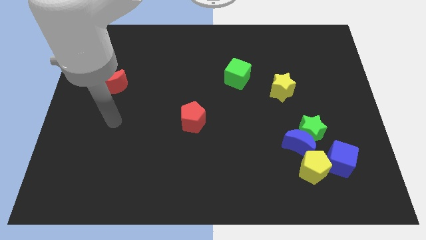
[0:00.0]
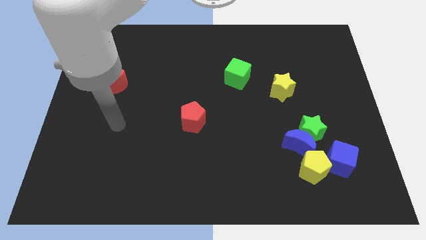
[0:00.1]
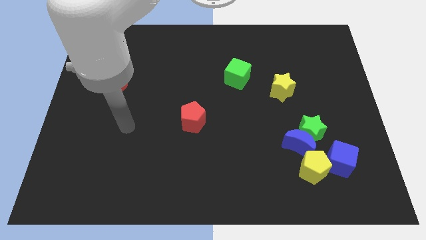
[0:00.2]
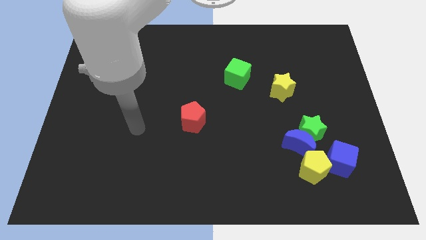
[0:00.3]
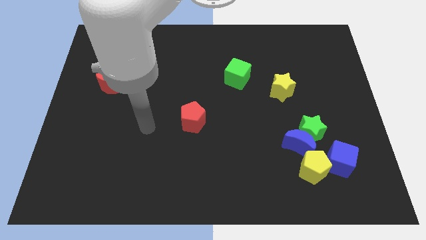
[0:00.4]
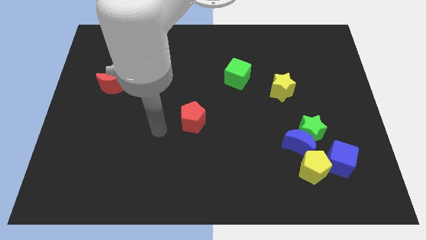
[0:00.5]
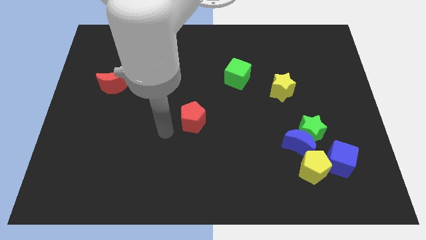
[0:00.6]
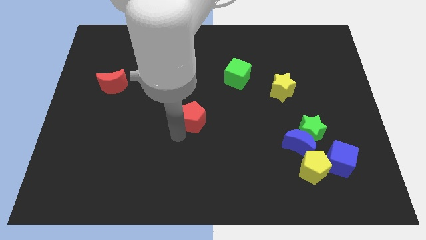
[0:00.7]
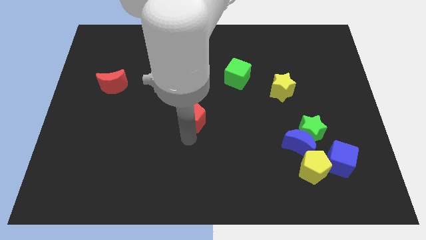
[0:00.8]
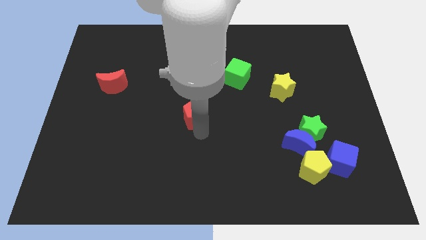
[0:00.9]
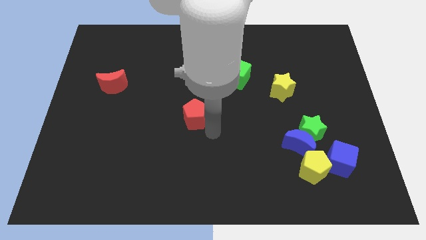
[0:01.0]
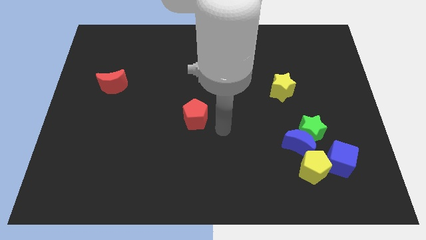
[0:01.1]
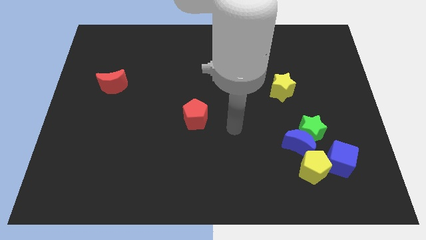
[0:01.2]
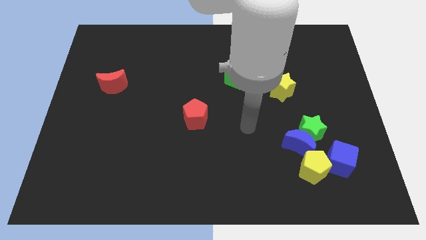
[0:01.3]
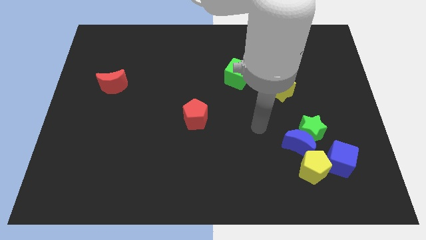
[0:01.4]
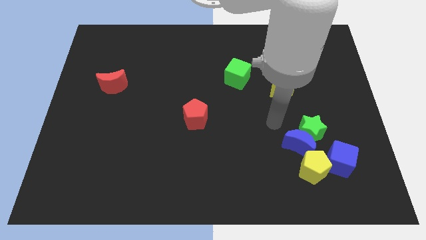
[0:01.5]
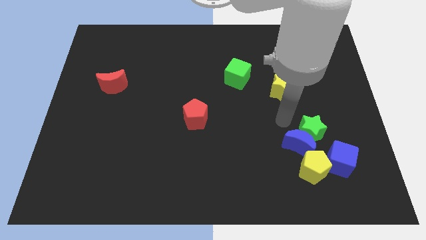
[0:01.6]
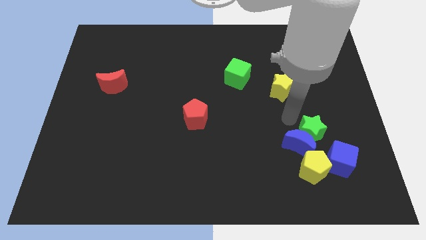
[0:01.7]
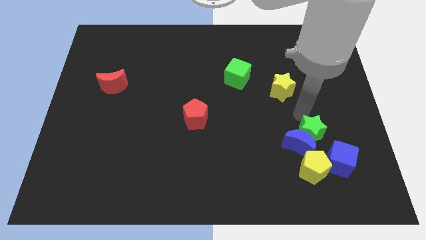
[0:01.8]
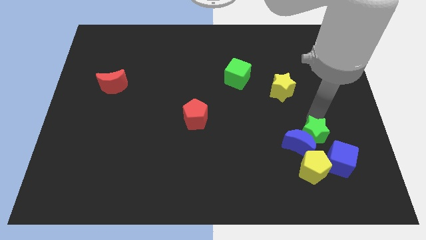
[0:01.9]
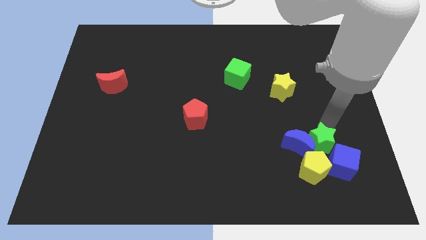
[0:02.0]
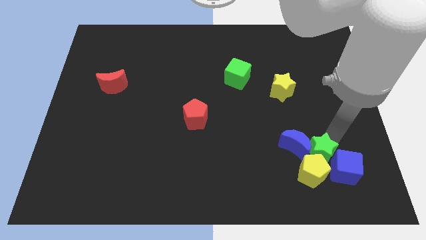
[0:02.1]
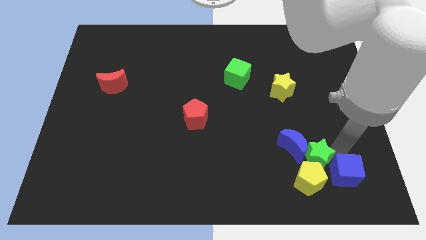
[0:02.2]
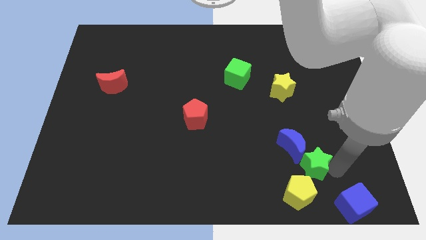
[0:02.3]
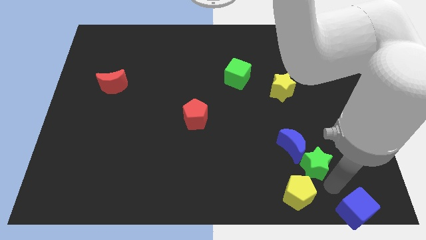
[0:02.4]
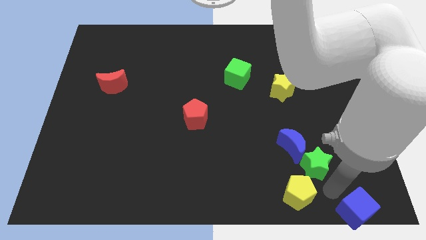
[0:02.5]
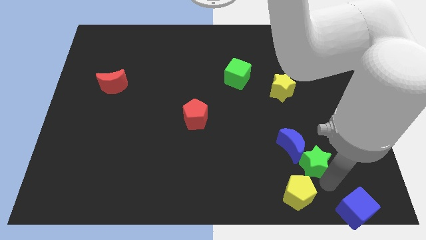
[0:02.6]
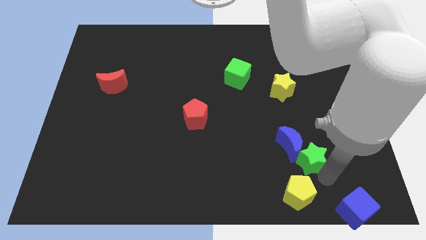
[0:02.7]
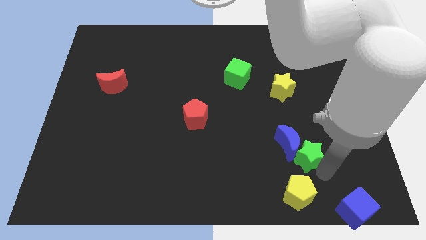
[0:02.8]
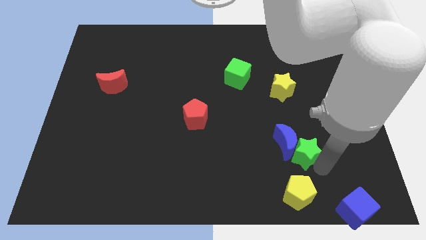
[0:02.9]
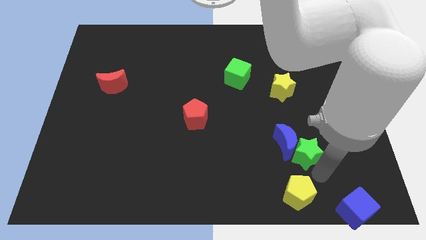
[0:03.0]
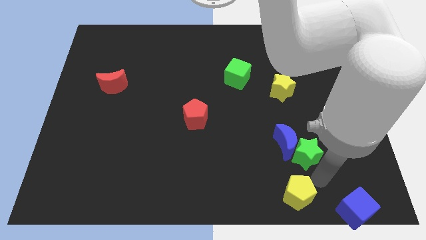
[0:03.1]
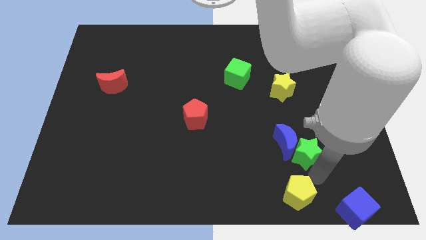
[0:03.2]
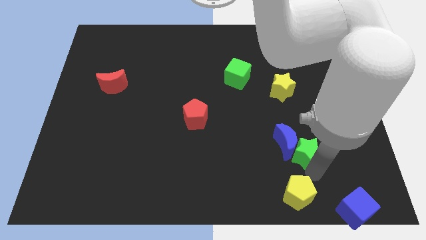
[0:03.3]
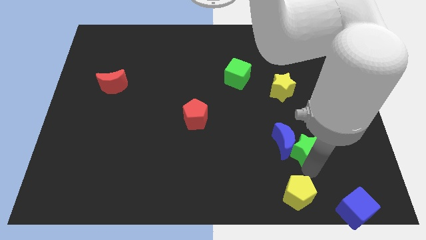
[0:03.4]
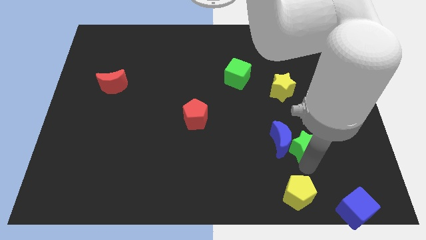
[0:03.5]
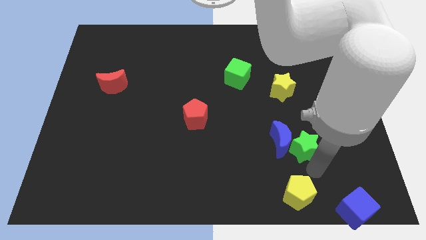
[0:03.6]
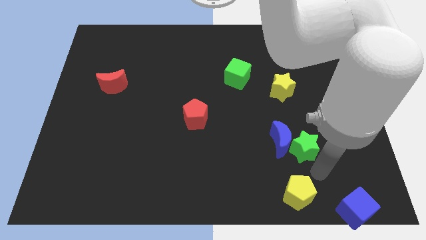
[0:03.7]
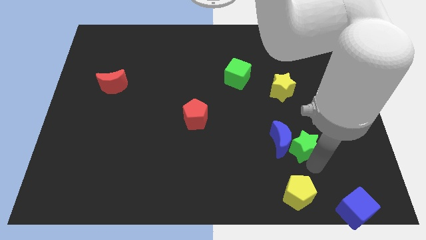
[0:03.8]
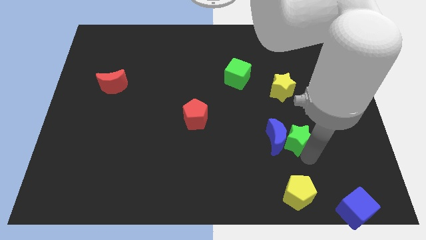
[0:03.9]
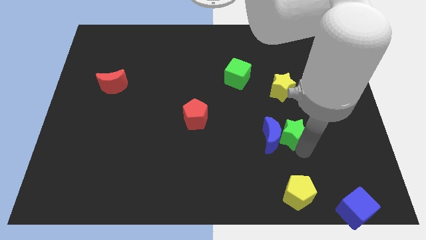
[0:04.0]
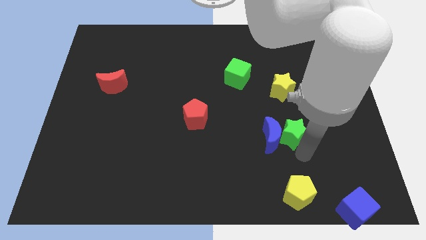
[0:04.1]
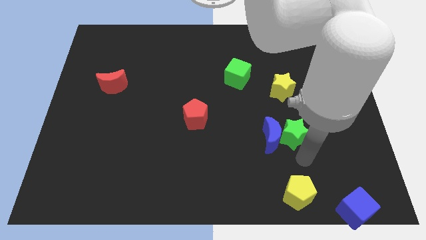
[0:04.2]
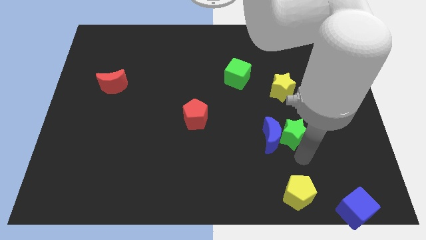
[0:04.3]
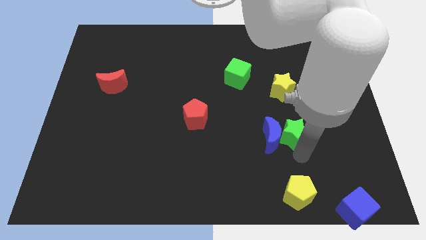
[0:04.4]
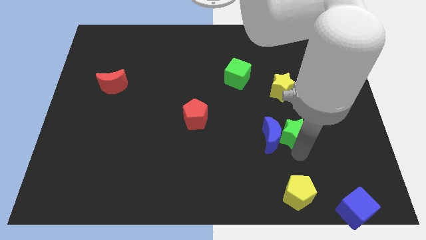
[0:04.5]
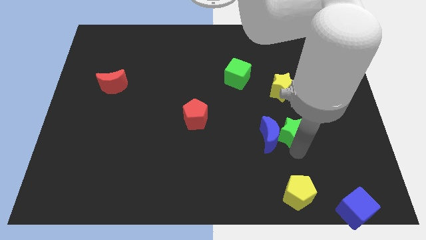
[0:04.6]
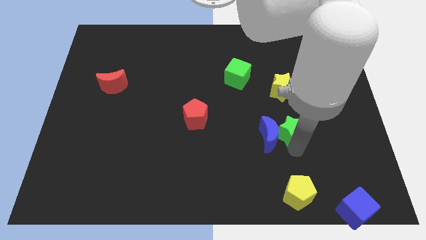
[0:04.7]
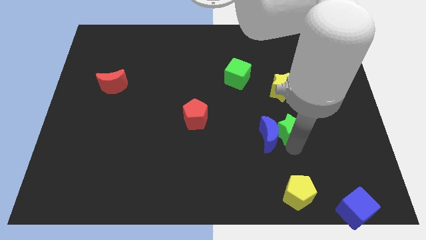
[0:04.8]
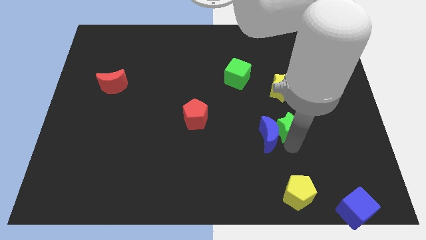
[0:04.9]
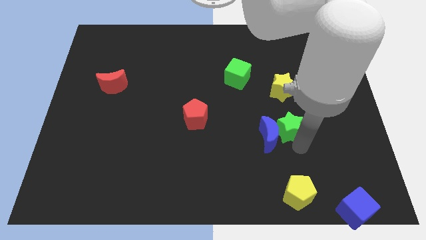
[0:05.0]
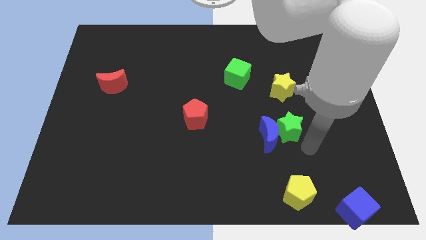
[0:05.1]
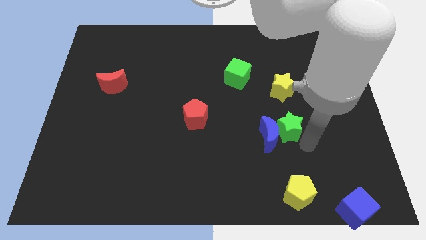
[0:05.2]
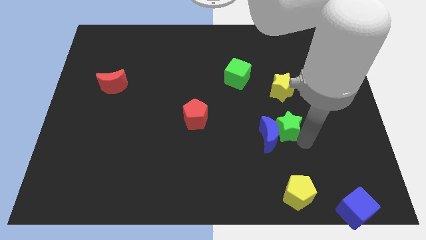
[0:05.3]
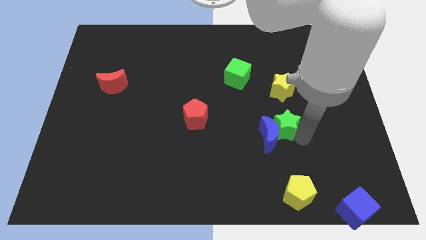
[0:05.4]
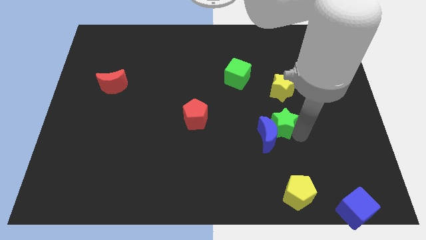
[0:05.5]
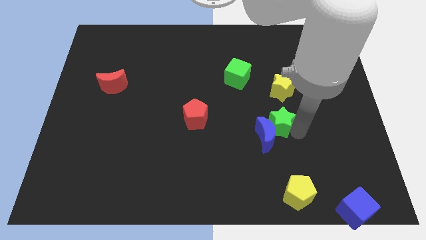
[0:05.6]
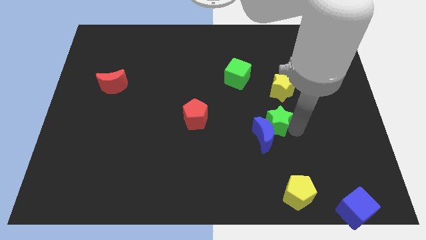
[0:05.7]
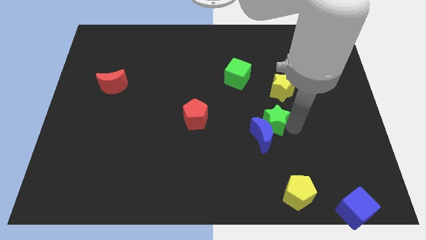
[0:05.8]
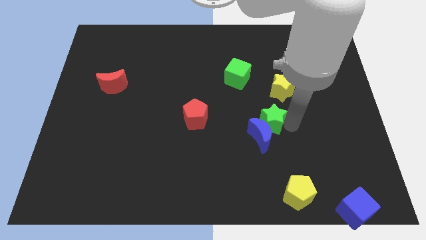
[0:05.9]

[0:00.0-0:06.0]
put the green star to the bottom left of the yellow star
